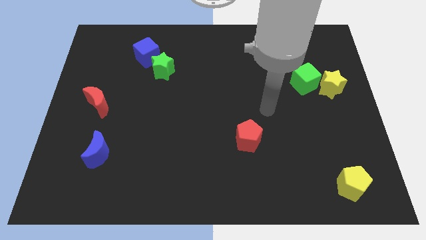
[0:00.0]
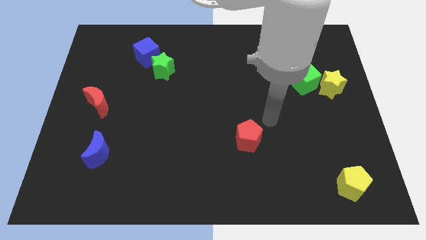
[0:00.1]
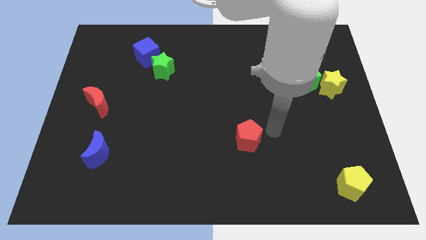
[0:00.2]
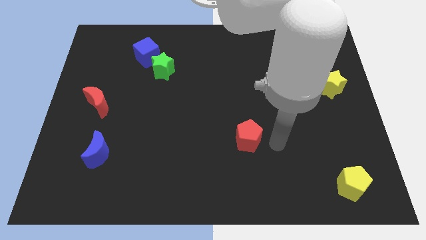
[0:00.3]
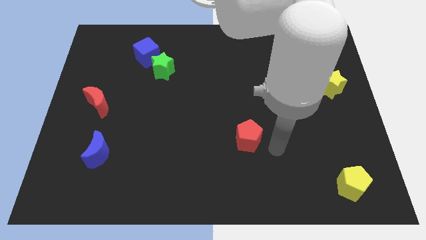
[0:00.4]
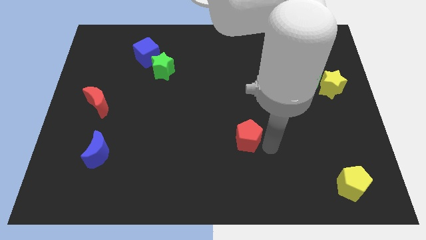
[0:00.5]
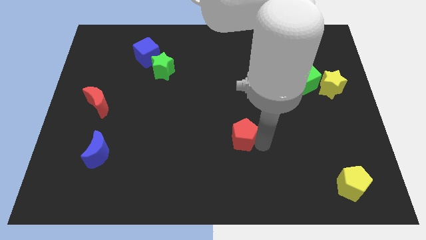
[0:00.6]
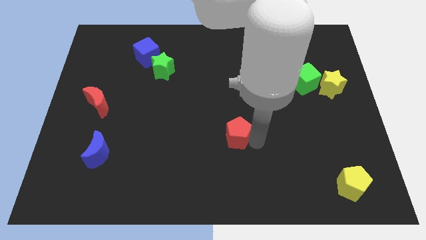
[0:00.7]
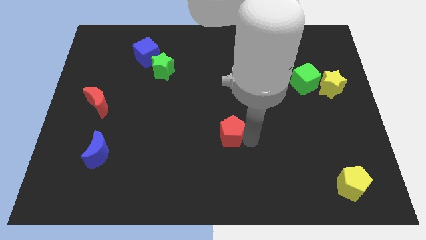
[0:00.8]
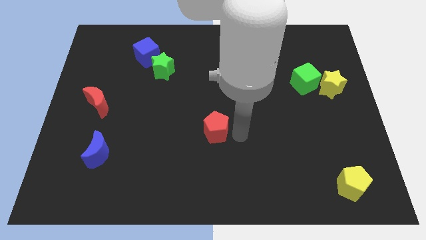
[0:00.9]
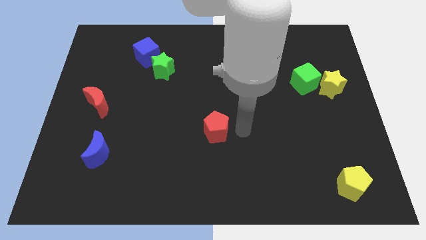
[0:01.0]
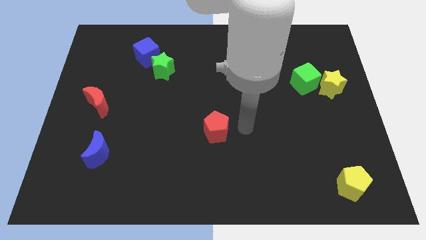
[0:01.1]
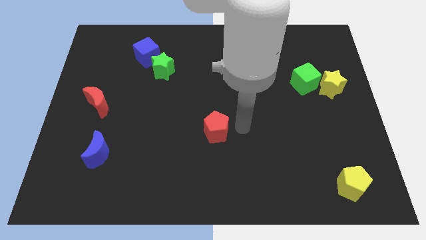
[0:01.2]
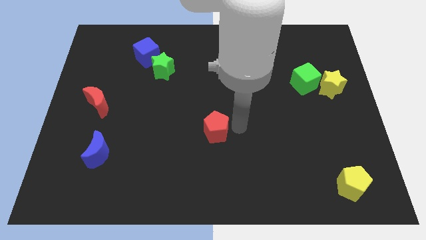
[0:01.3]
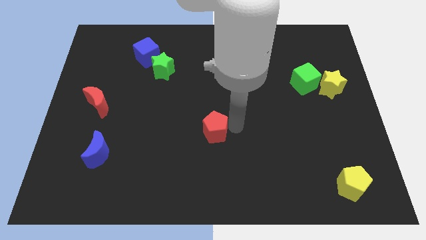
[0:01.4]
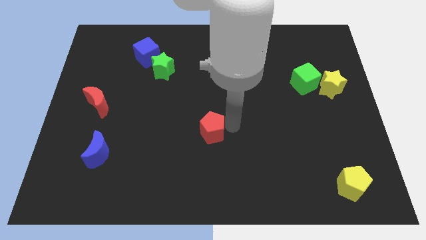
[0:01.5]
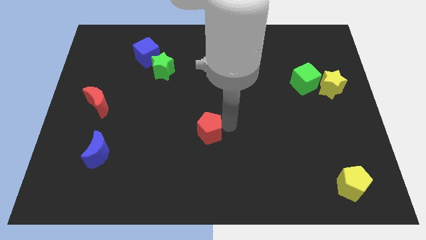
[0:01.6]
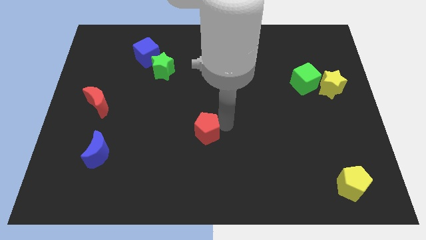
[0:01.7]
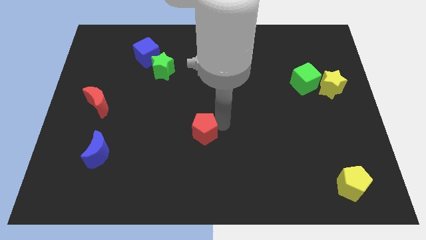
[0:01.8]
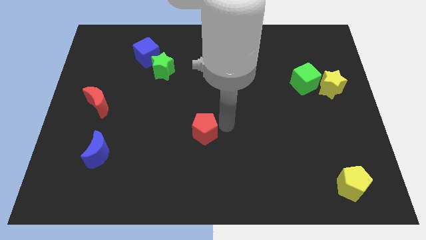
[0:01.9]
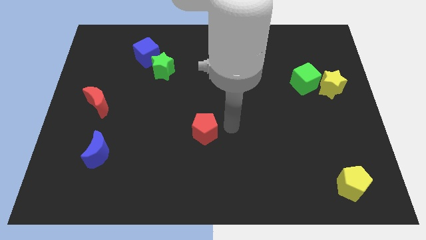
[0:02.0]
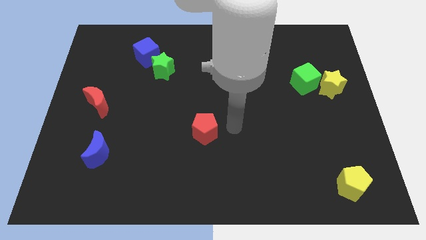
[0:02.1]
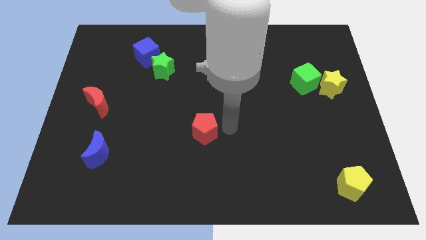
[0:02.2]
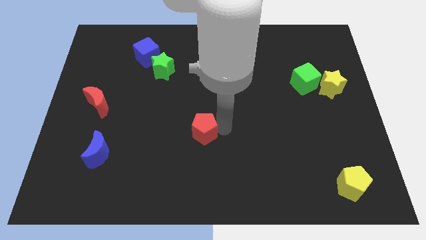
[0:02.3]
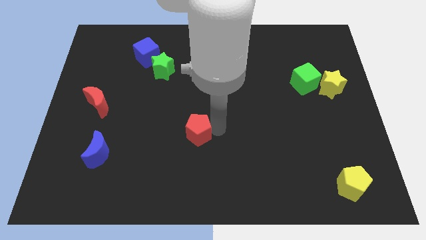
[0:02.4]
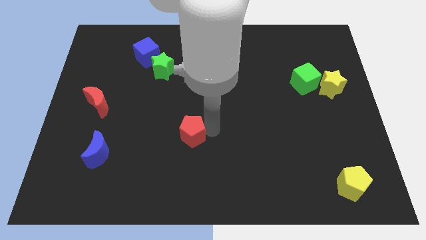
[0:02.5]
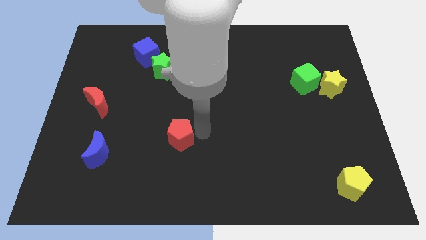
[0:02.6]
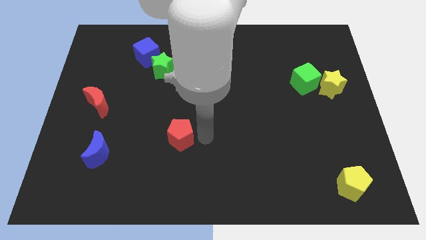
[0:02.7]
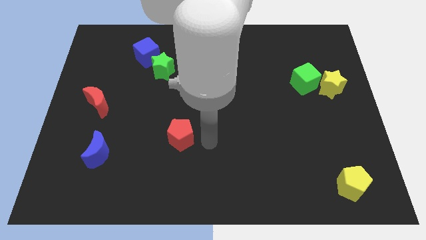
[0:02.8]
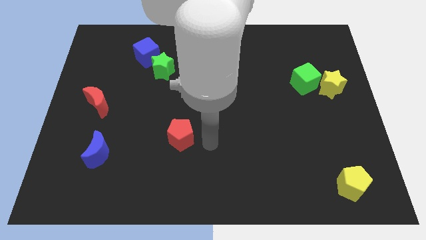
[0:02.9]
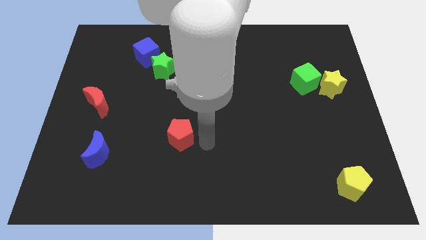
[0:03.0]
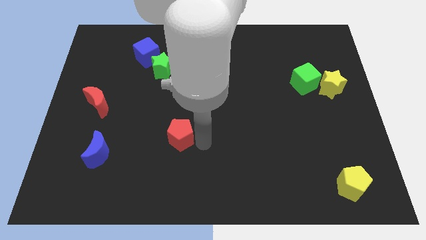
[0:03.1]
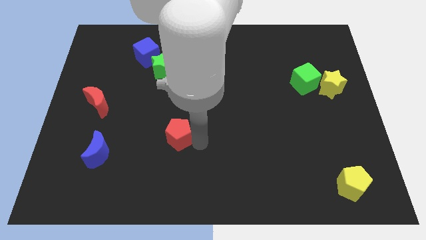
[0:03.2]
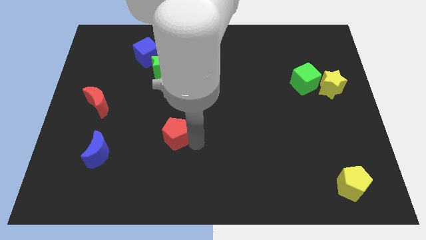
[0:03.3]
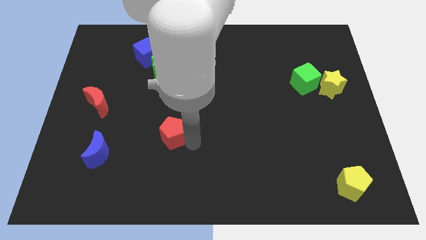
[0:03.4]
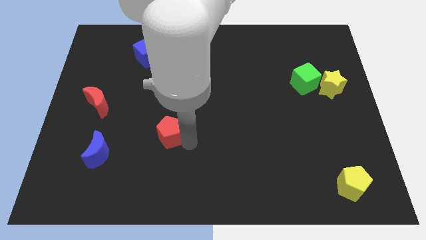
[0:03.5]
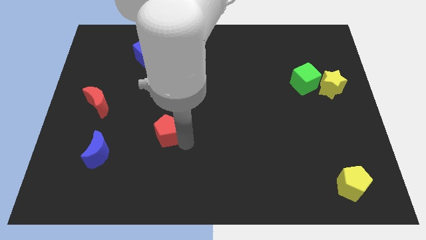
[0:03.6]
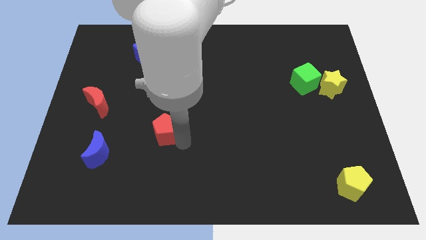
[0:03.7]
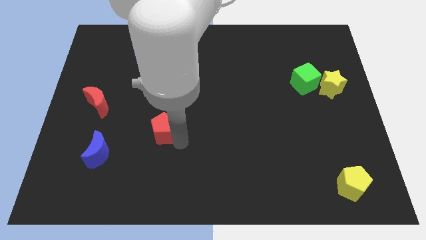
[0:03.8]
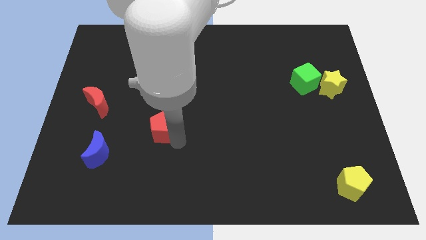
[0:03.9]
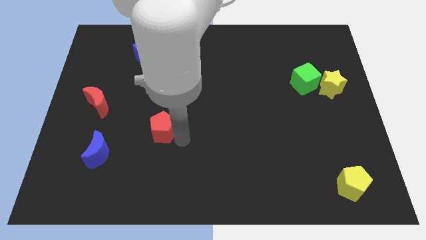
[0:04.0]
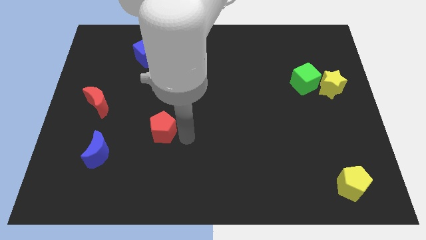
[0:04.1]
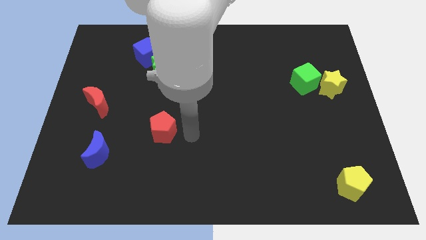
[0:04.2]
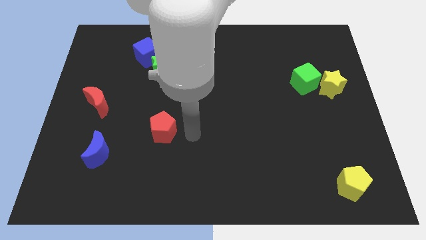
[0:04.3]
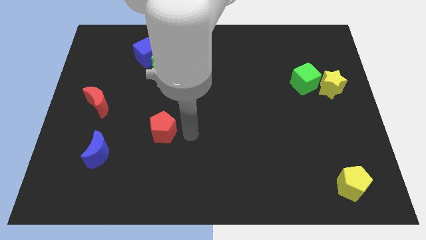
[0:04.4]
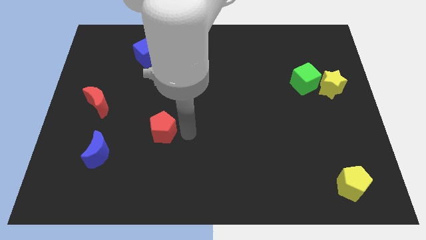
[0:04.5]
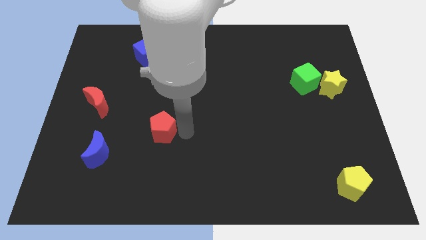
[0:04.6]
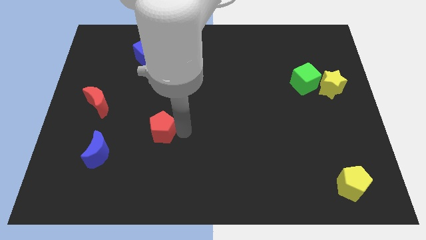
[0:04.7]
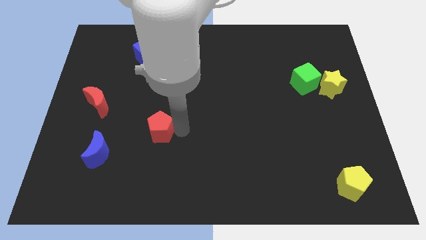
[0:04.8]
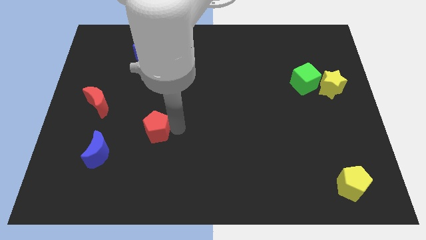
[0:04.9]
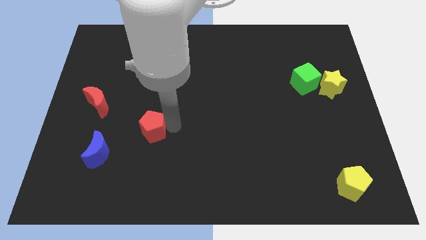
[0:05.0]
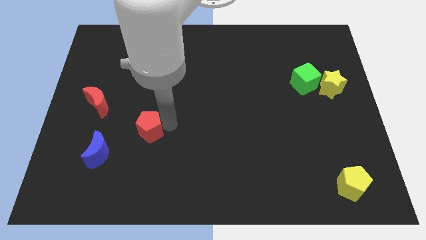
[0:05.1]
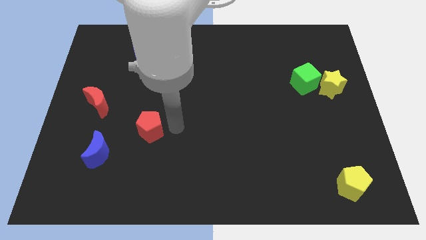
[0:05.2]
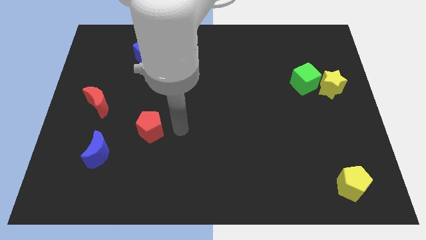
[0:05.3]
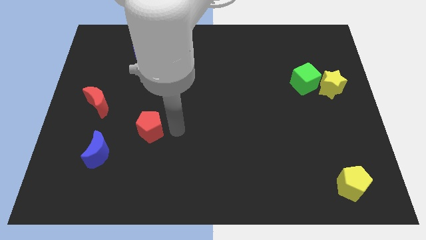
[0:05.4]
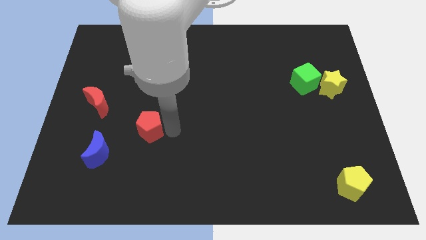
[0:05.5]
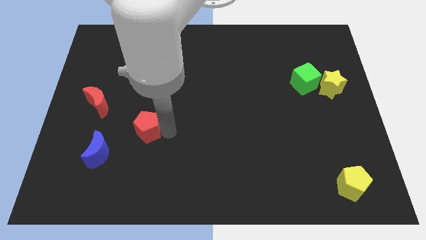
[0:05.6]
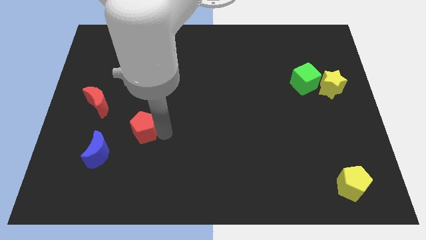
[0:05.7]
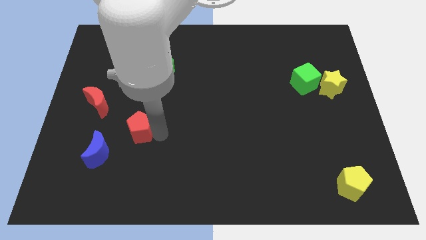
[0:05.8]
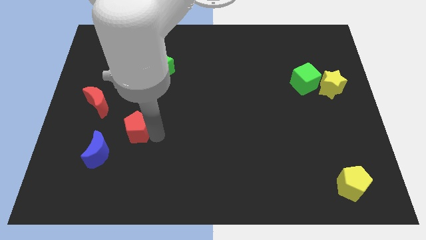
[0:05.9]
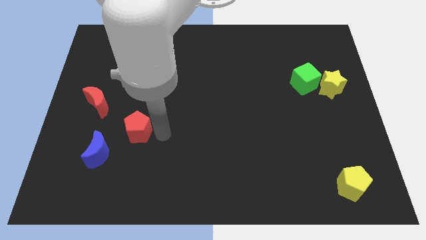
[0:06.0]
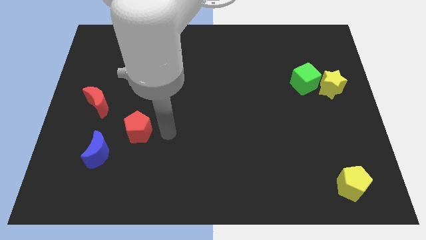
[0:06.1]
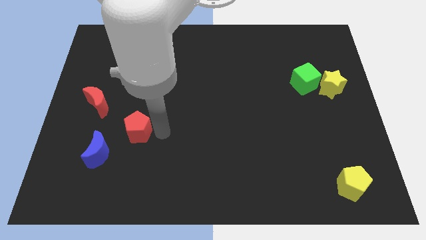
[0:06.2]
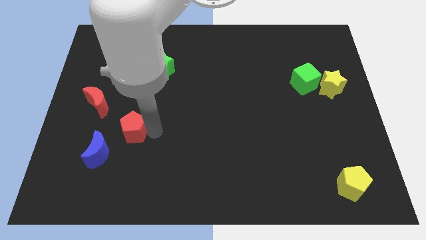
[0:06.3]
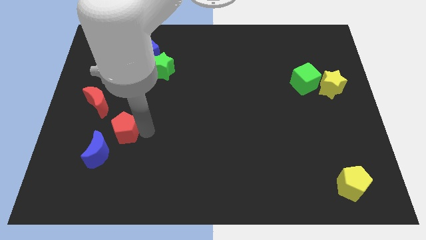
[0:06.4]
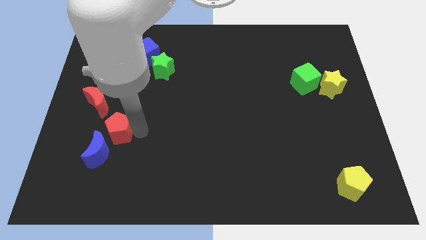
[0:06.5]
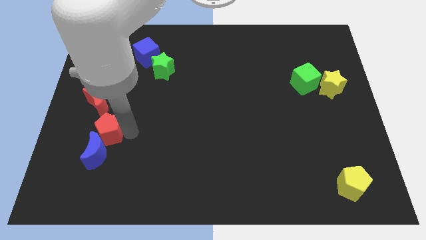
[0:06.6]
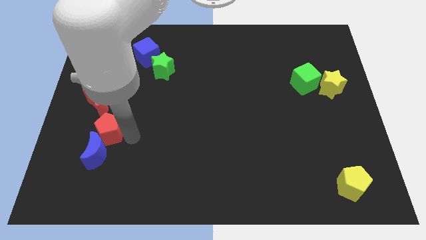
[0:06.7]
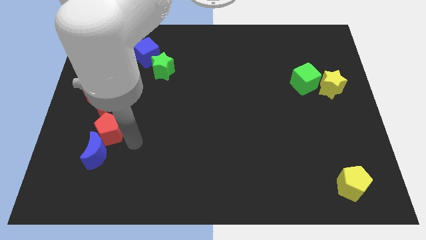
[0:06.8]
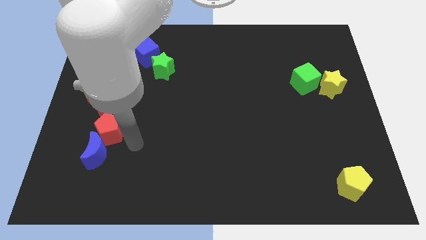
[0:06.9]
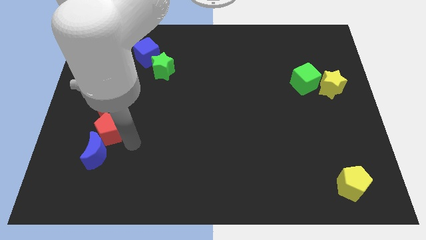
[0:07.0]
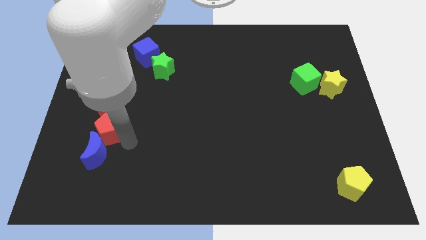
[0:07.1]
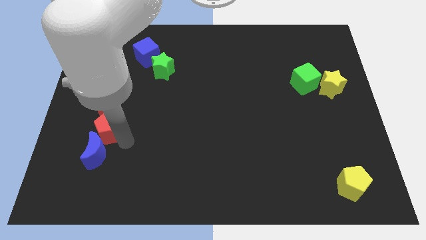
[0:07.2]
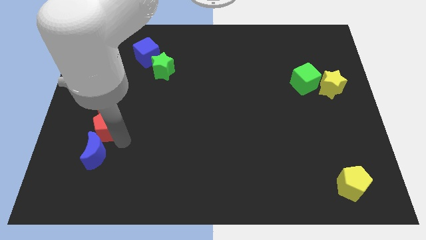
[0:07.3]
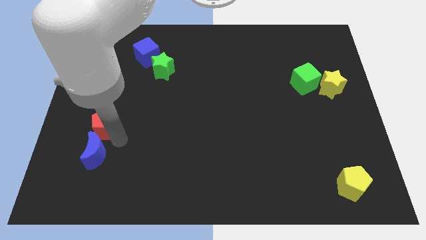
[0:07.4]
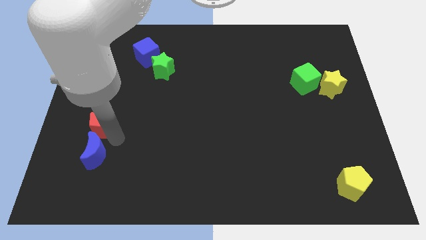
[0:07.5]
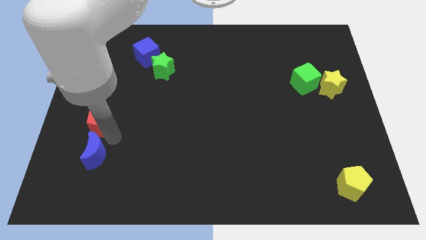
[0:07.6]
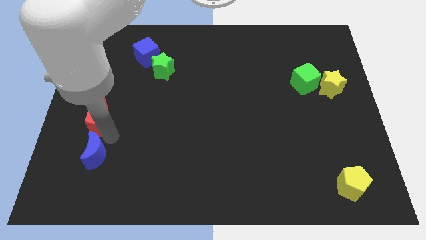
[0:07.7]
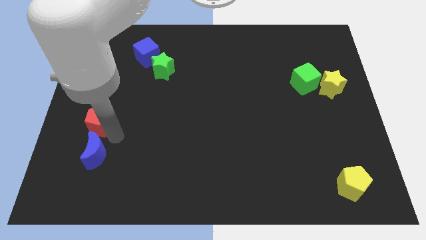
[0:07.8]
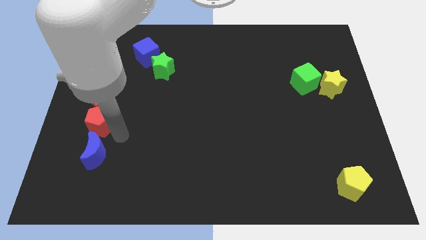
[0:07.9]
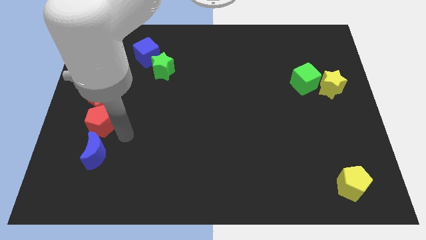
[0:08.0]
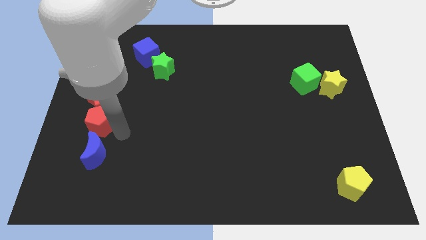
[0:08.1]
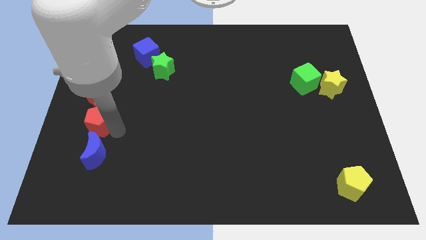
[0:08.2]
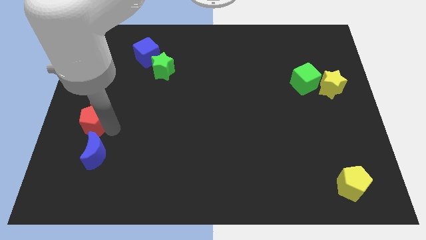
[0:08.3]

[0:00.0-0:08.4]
move the red pentagon to the left side
